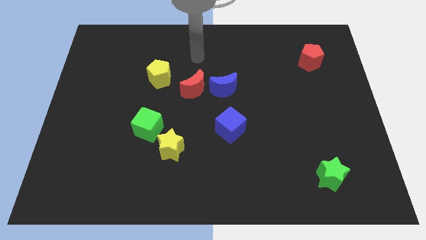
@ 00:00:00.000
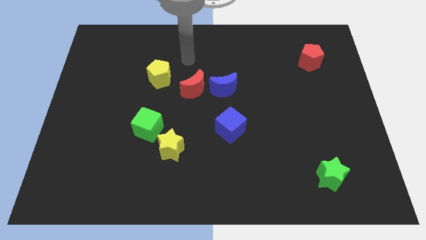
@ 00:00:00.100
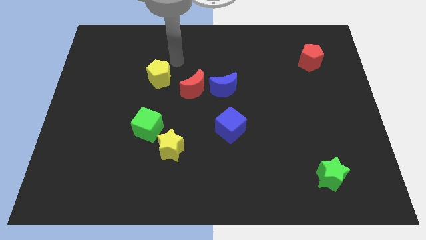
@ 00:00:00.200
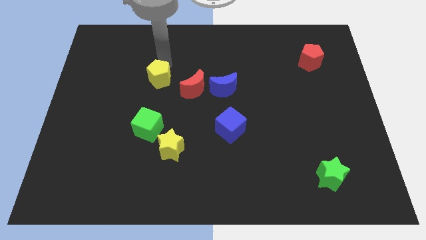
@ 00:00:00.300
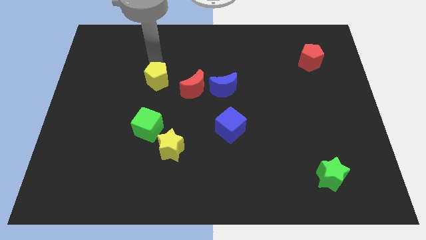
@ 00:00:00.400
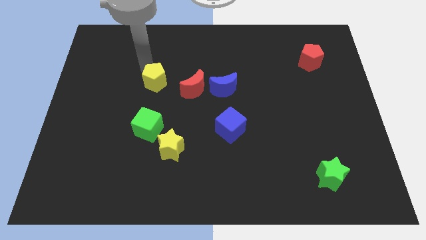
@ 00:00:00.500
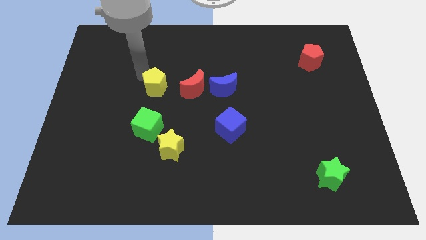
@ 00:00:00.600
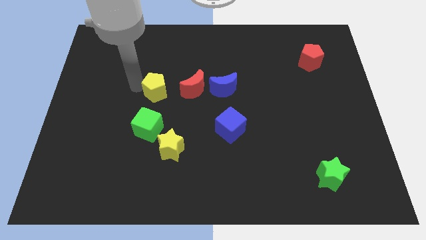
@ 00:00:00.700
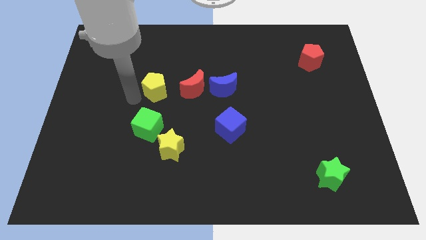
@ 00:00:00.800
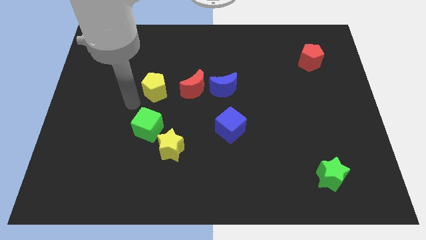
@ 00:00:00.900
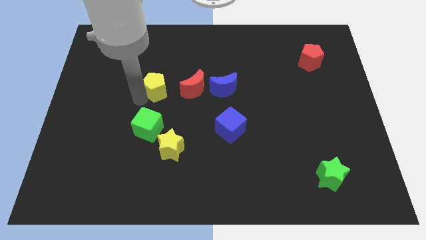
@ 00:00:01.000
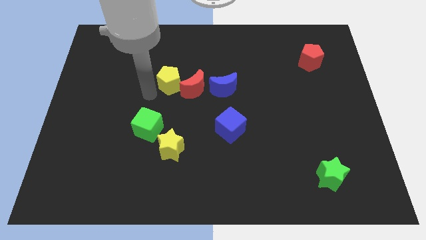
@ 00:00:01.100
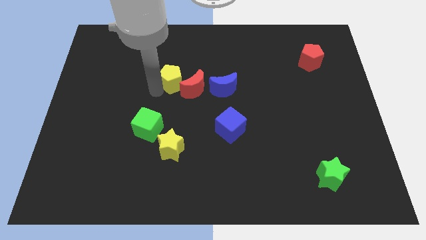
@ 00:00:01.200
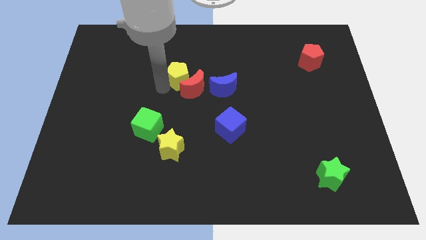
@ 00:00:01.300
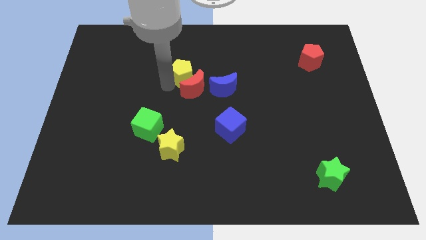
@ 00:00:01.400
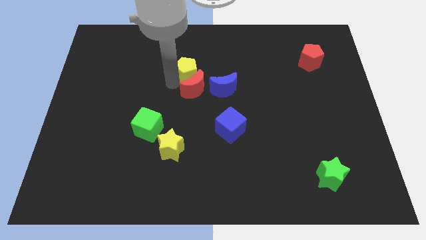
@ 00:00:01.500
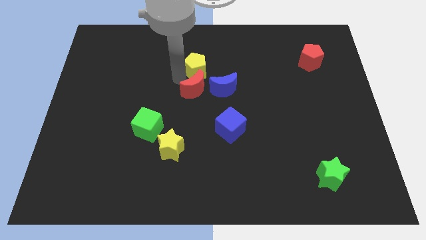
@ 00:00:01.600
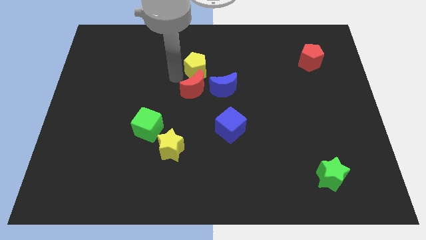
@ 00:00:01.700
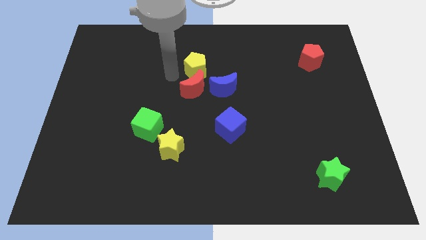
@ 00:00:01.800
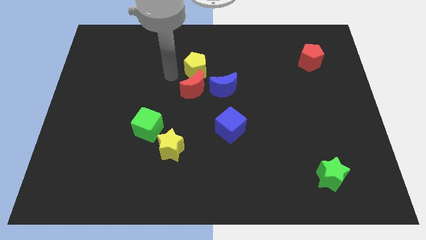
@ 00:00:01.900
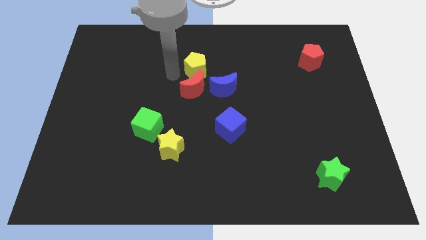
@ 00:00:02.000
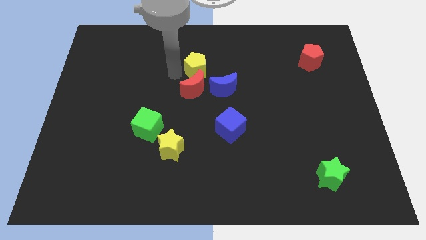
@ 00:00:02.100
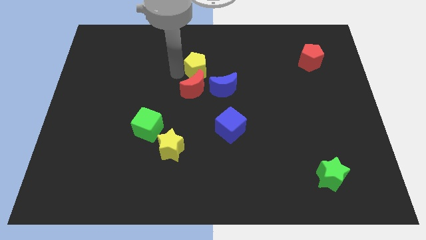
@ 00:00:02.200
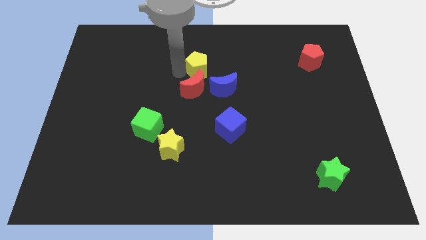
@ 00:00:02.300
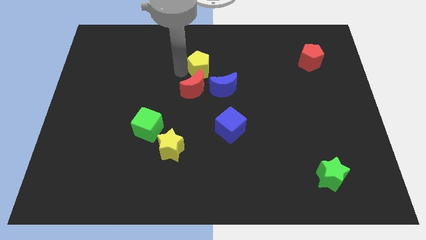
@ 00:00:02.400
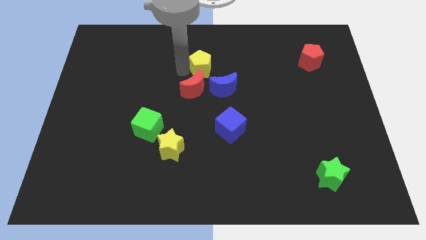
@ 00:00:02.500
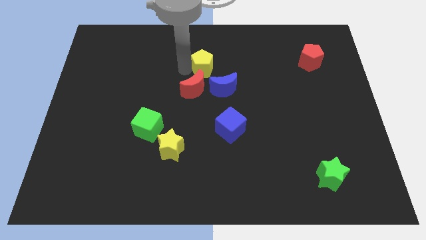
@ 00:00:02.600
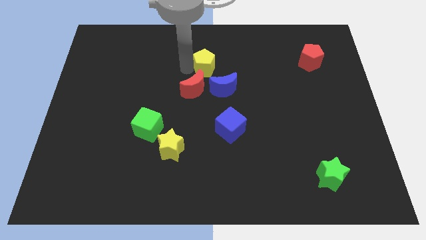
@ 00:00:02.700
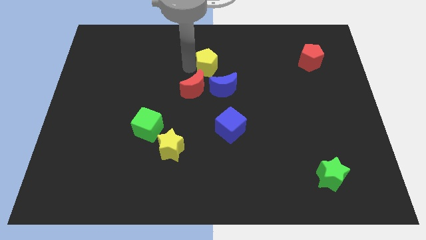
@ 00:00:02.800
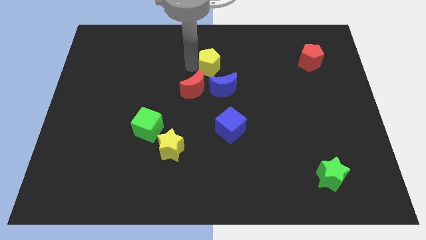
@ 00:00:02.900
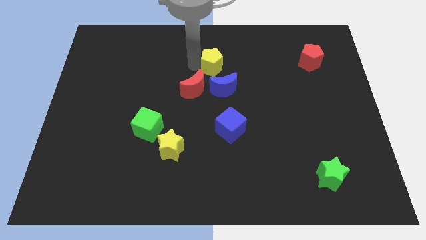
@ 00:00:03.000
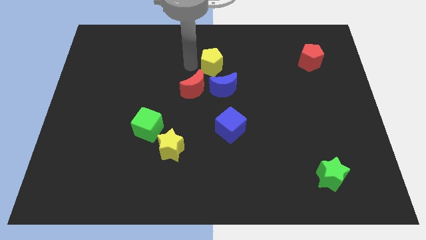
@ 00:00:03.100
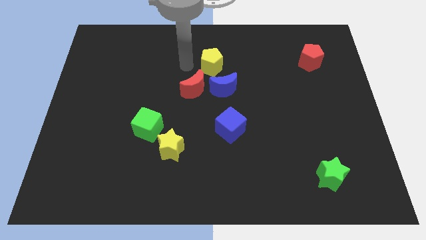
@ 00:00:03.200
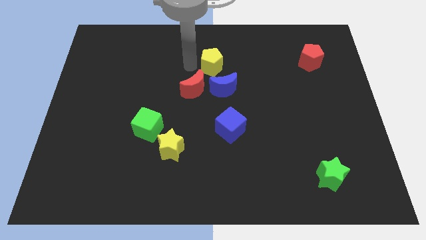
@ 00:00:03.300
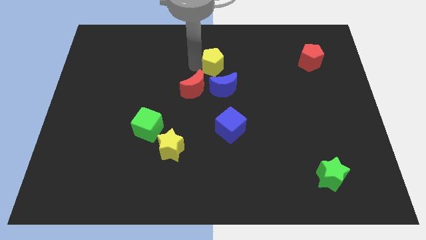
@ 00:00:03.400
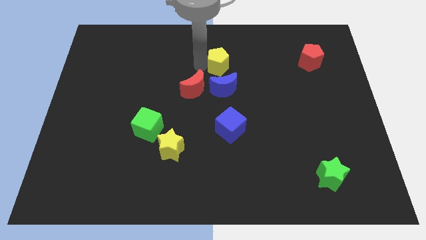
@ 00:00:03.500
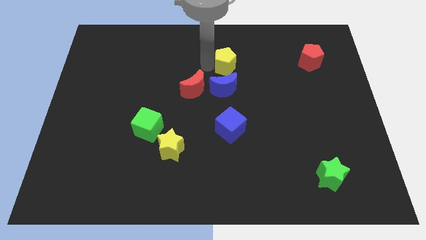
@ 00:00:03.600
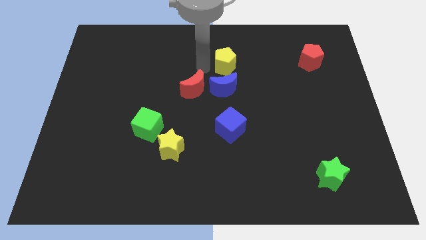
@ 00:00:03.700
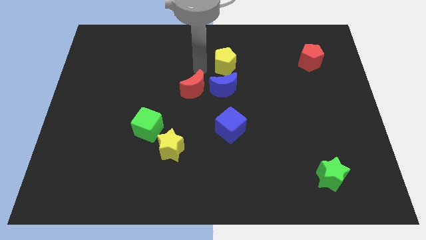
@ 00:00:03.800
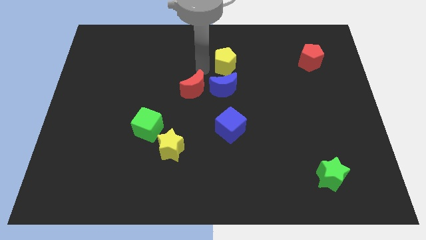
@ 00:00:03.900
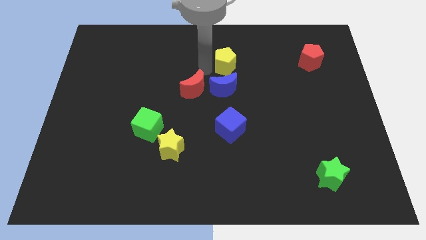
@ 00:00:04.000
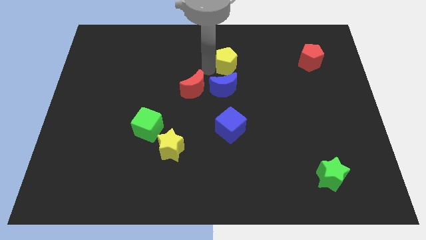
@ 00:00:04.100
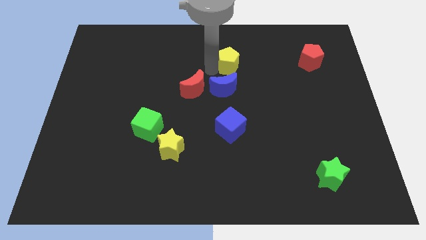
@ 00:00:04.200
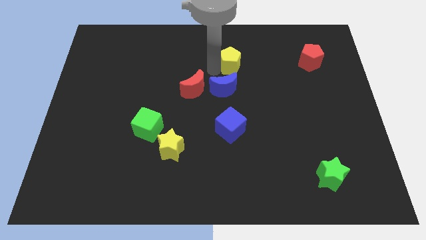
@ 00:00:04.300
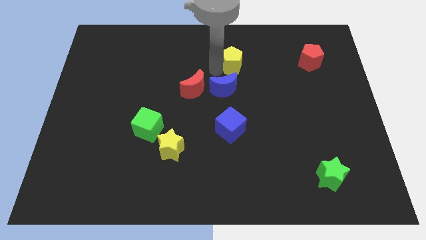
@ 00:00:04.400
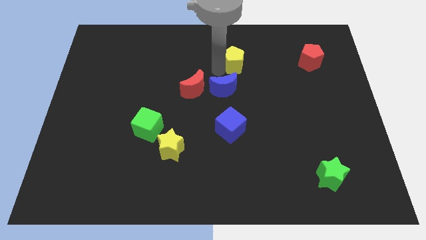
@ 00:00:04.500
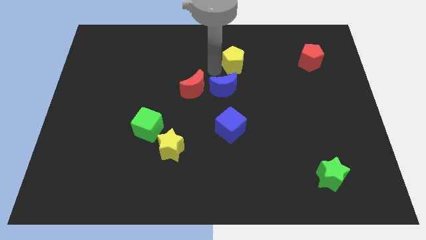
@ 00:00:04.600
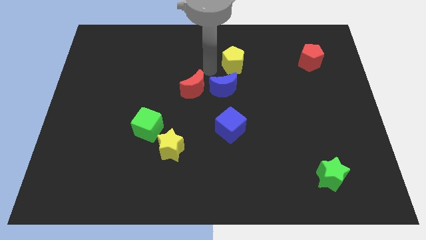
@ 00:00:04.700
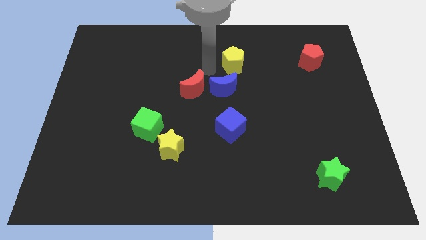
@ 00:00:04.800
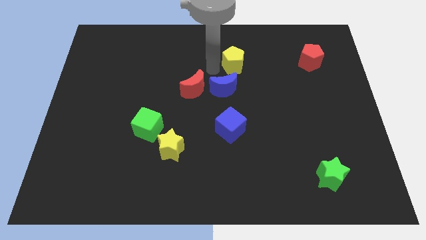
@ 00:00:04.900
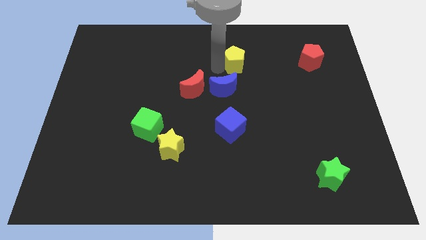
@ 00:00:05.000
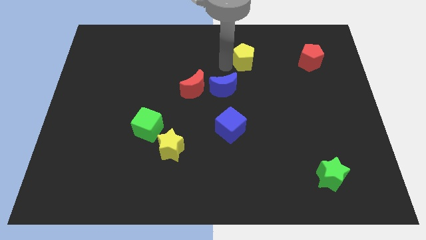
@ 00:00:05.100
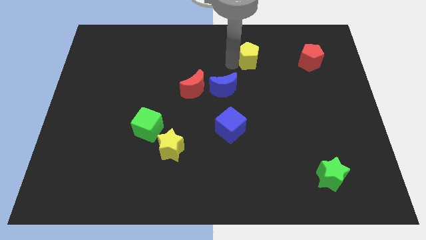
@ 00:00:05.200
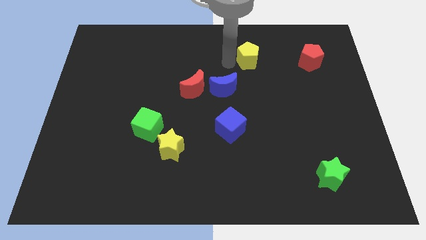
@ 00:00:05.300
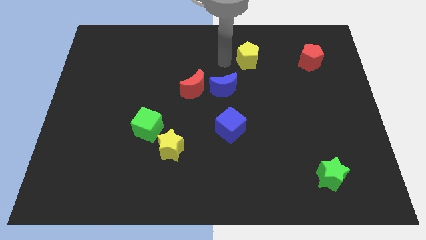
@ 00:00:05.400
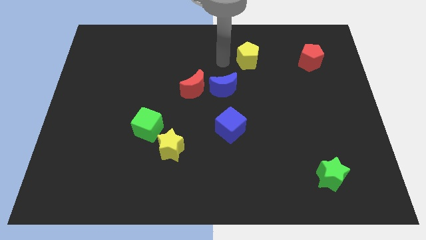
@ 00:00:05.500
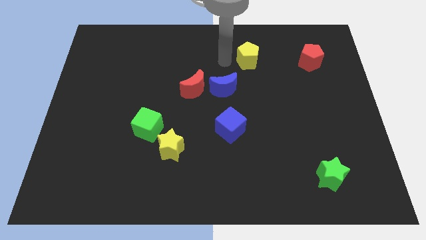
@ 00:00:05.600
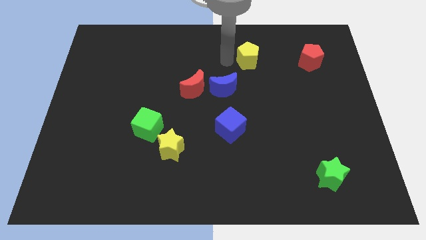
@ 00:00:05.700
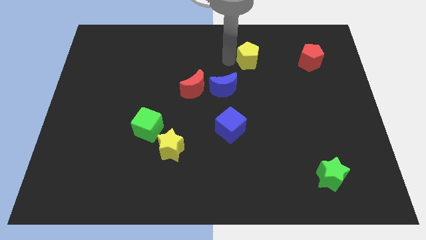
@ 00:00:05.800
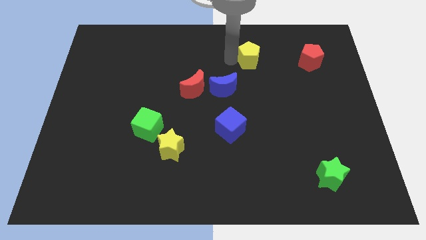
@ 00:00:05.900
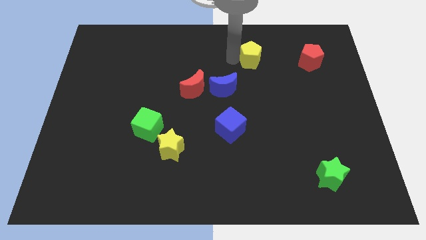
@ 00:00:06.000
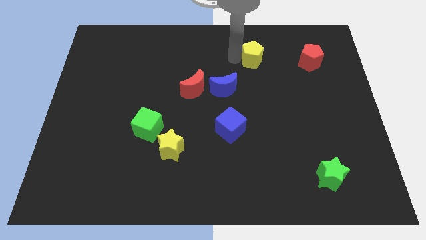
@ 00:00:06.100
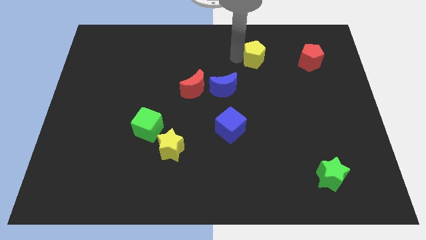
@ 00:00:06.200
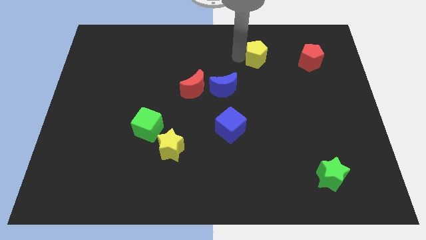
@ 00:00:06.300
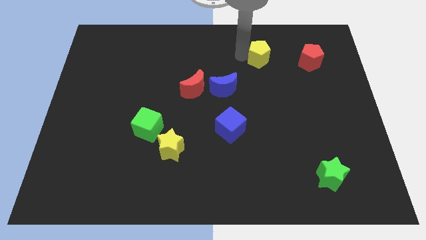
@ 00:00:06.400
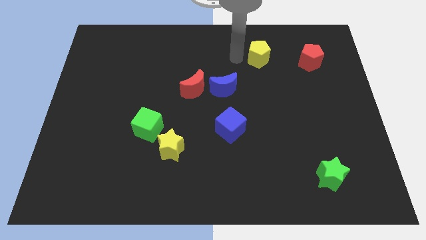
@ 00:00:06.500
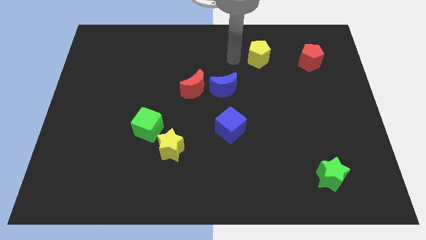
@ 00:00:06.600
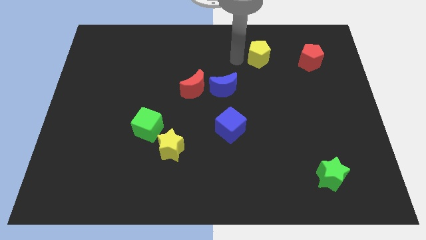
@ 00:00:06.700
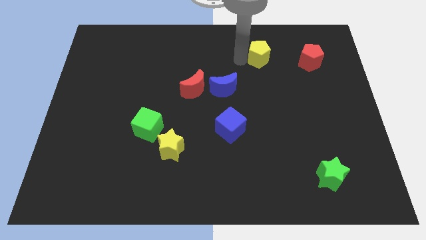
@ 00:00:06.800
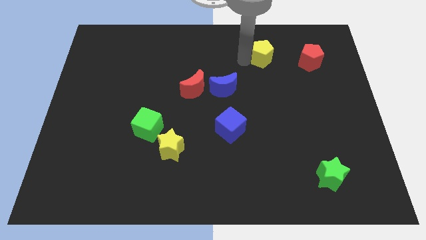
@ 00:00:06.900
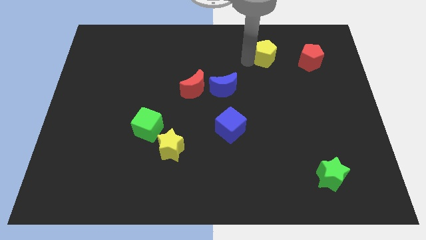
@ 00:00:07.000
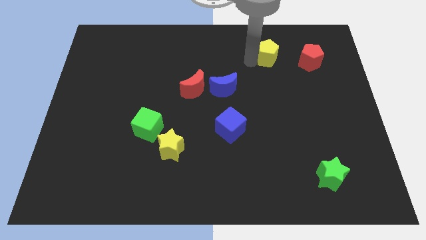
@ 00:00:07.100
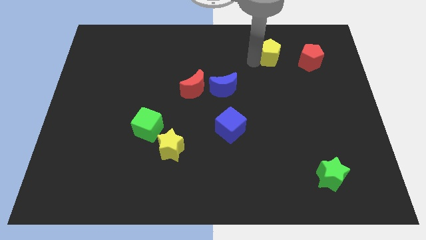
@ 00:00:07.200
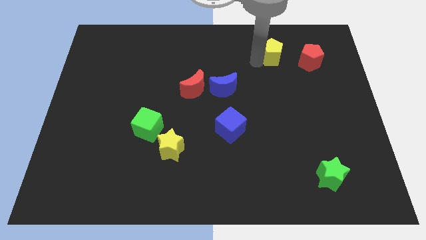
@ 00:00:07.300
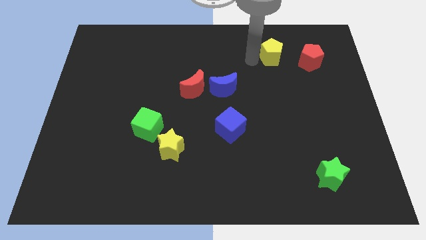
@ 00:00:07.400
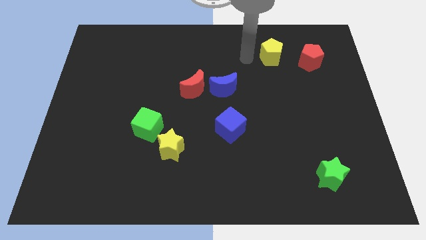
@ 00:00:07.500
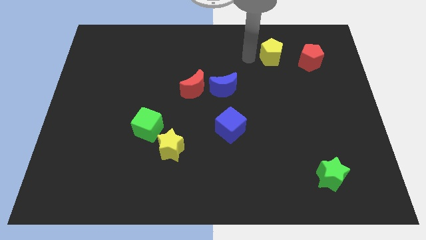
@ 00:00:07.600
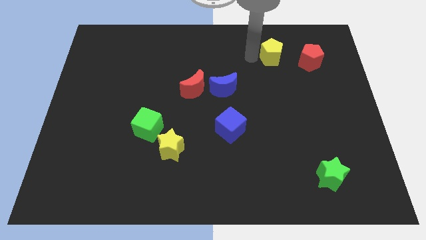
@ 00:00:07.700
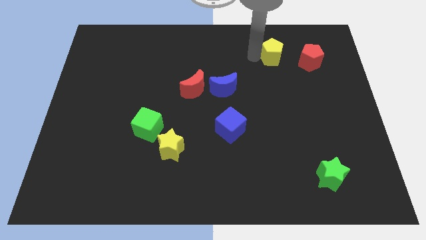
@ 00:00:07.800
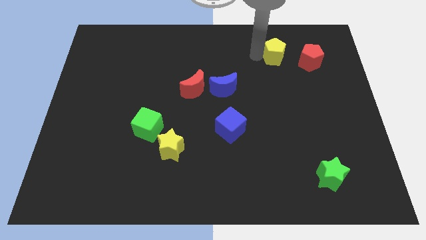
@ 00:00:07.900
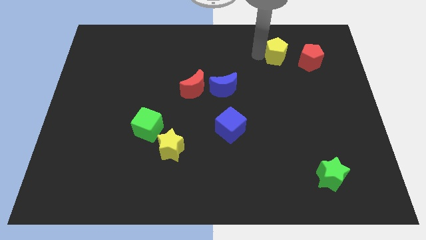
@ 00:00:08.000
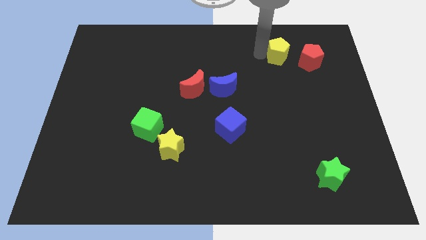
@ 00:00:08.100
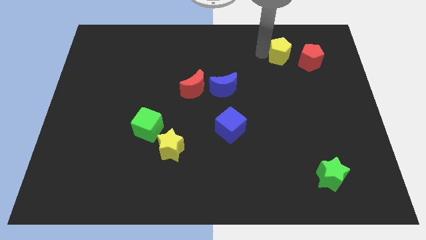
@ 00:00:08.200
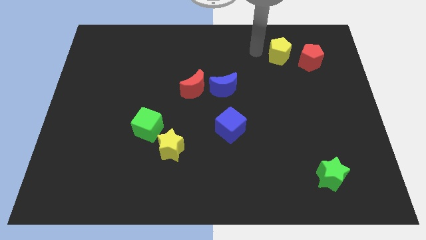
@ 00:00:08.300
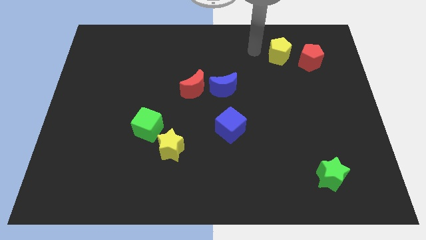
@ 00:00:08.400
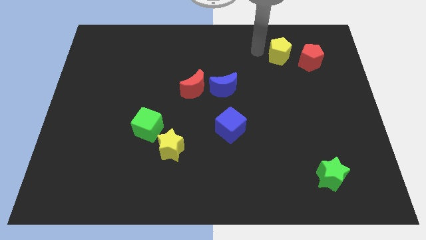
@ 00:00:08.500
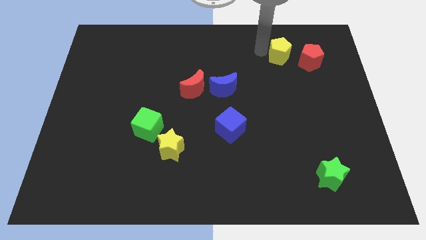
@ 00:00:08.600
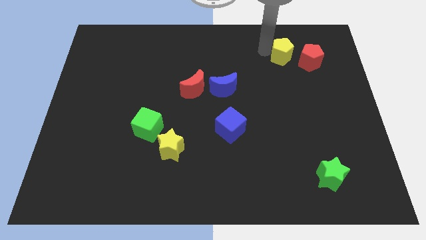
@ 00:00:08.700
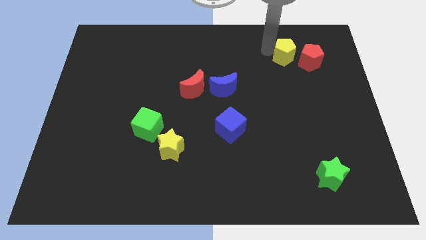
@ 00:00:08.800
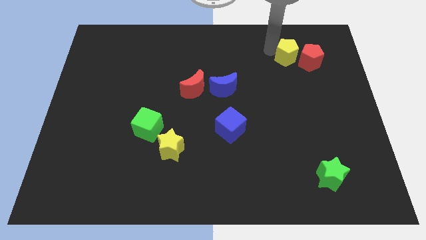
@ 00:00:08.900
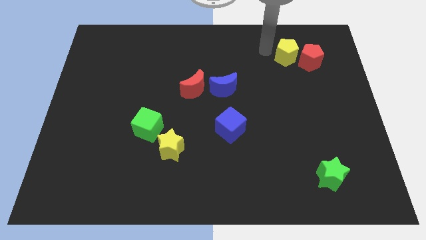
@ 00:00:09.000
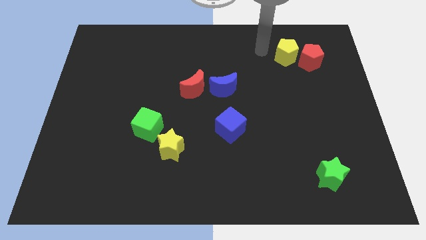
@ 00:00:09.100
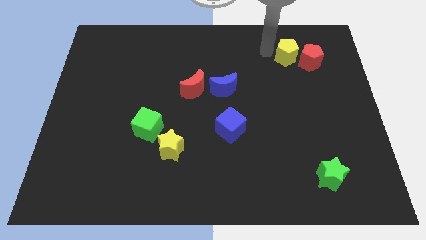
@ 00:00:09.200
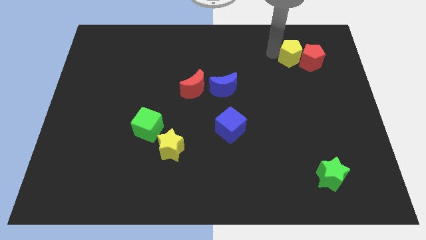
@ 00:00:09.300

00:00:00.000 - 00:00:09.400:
put the yellow pentagon towards the red pentagon
